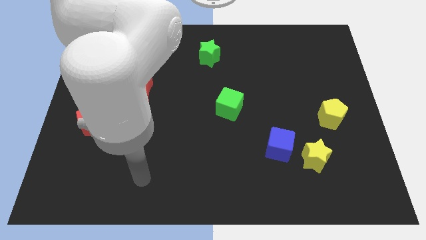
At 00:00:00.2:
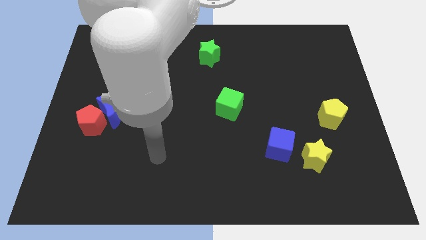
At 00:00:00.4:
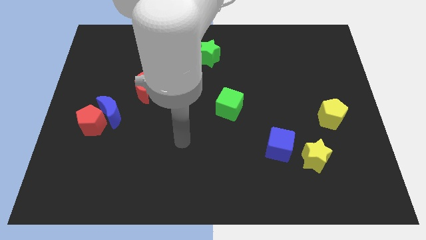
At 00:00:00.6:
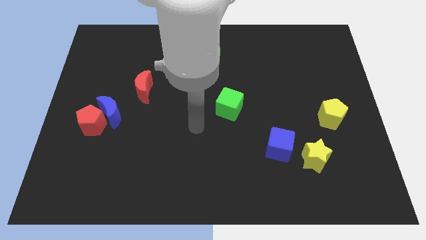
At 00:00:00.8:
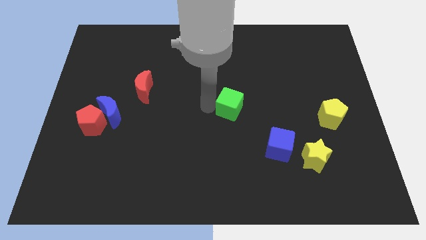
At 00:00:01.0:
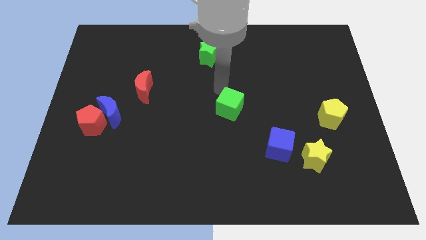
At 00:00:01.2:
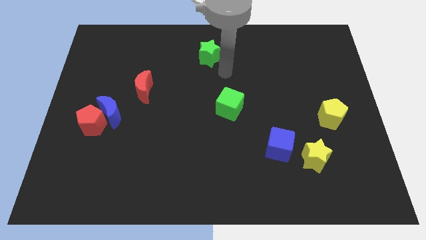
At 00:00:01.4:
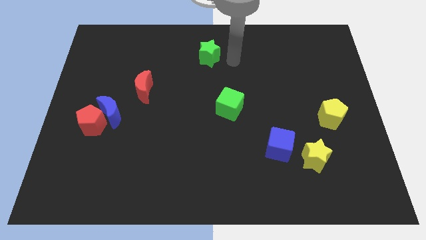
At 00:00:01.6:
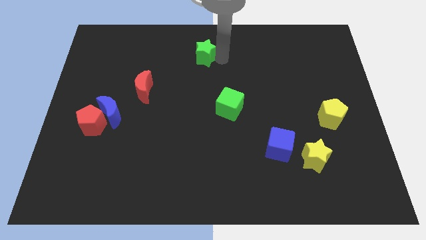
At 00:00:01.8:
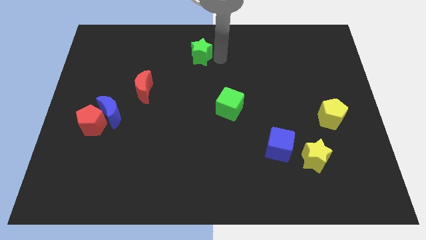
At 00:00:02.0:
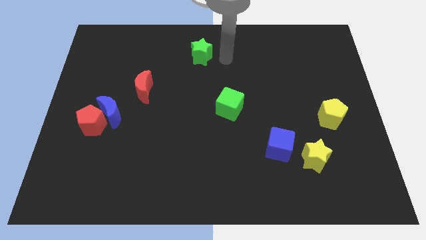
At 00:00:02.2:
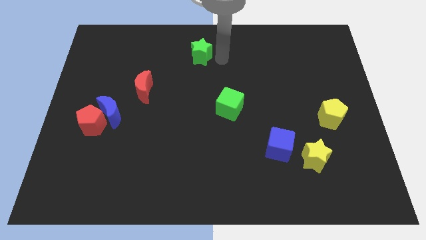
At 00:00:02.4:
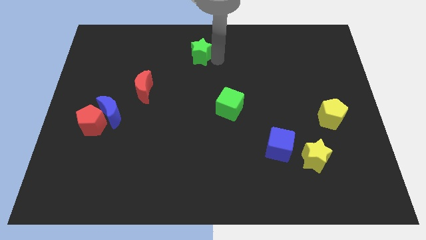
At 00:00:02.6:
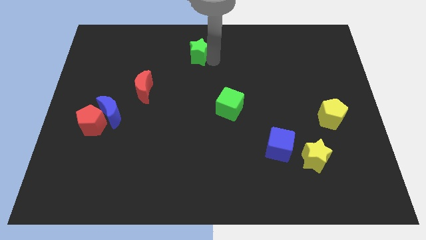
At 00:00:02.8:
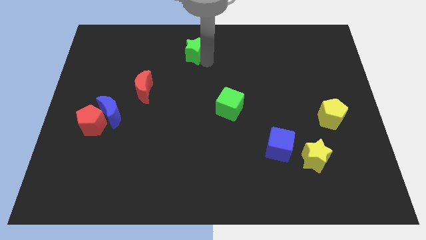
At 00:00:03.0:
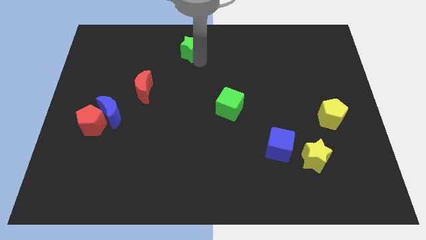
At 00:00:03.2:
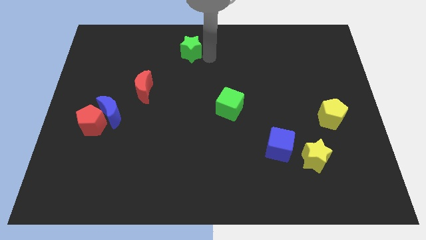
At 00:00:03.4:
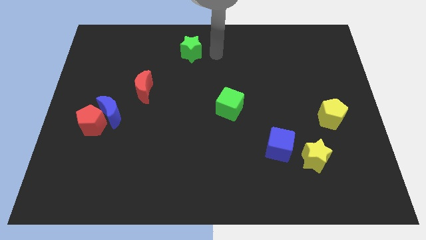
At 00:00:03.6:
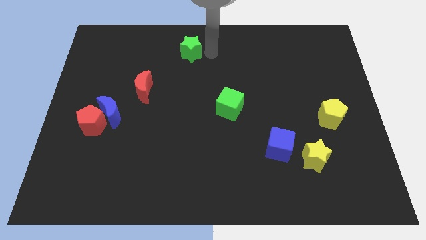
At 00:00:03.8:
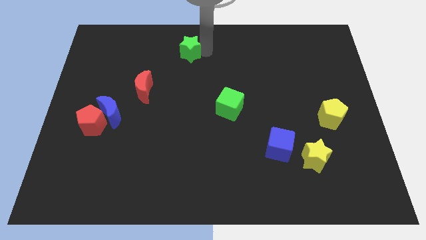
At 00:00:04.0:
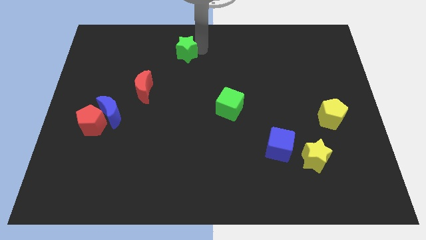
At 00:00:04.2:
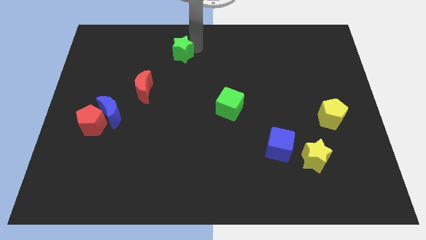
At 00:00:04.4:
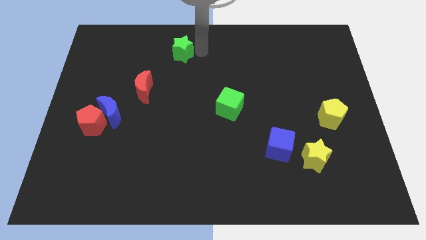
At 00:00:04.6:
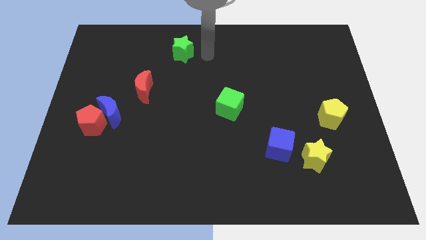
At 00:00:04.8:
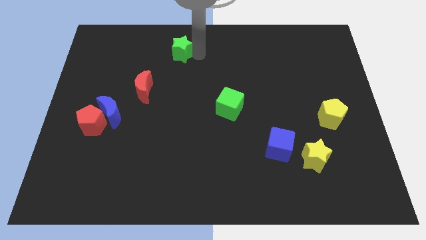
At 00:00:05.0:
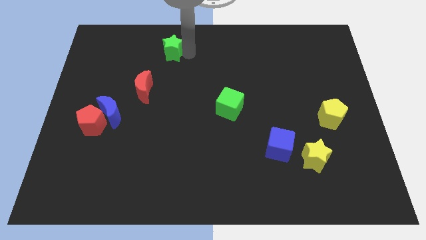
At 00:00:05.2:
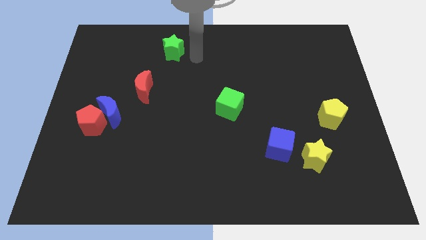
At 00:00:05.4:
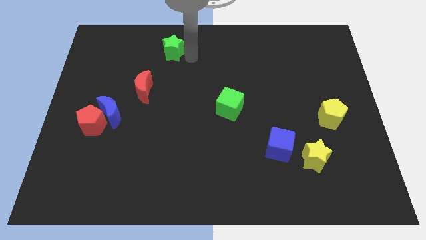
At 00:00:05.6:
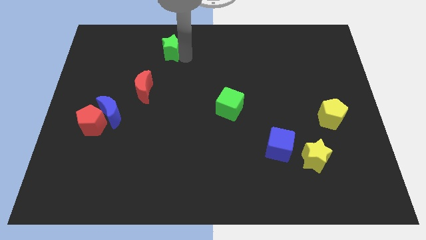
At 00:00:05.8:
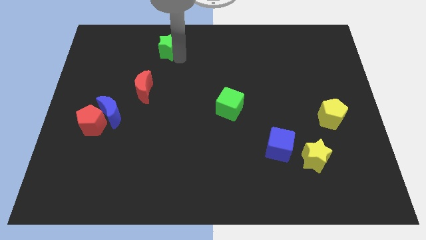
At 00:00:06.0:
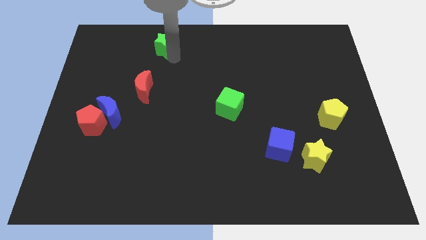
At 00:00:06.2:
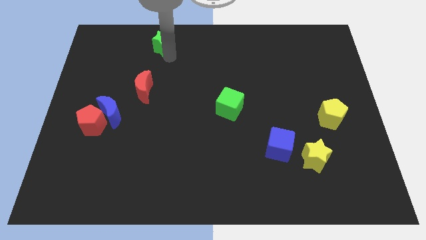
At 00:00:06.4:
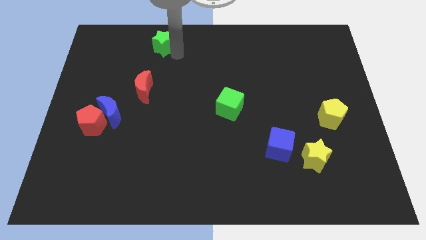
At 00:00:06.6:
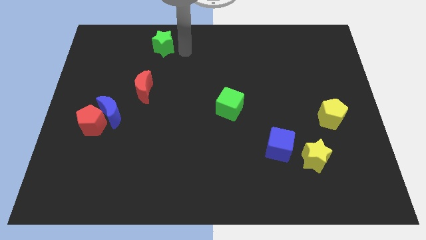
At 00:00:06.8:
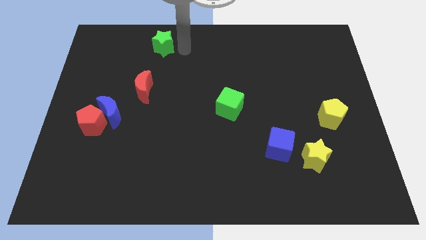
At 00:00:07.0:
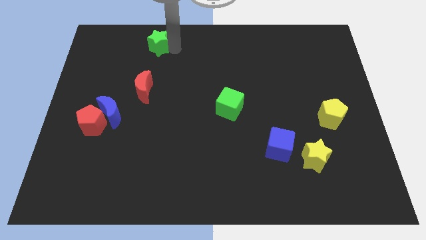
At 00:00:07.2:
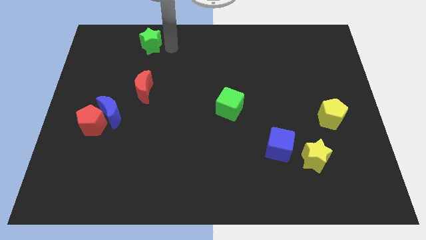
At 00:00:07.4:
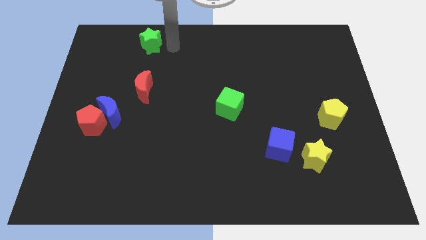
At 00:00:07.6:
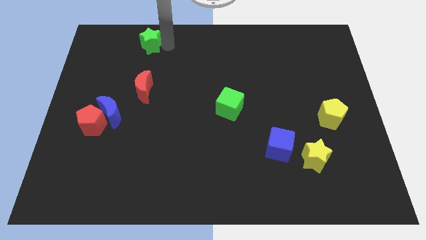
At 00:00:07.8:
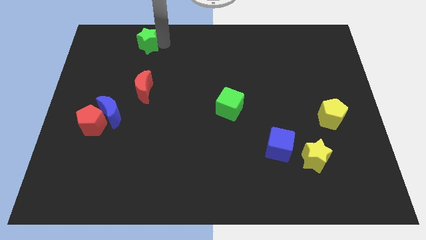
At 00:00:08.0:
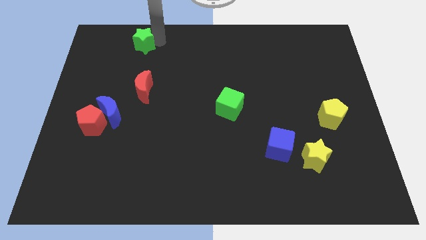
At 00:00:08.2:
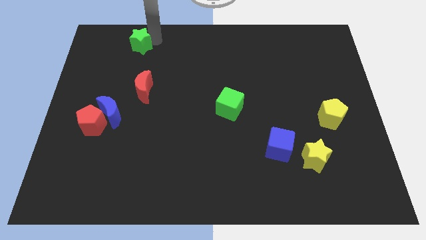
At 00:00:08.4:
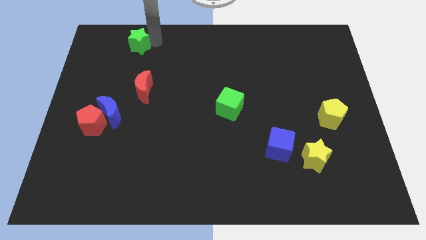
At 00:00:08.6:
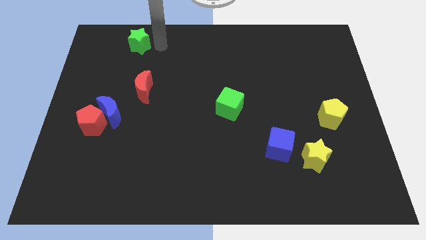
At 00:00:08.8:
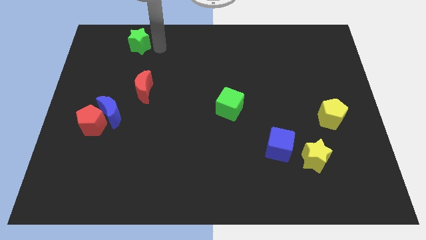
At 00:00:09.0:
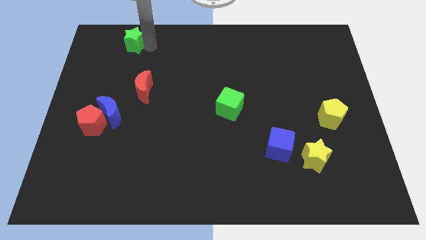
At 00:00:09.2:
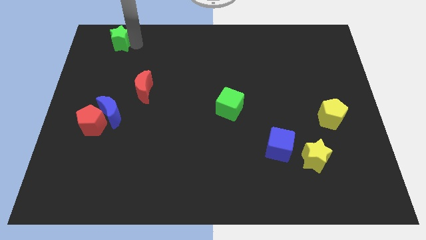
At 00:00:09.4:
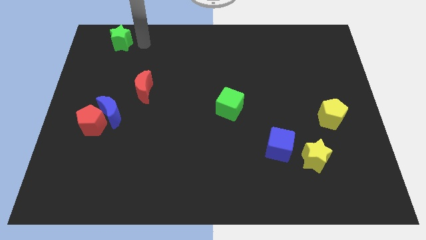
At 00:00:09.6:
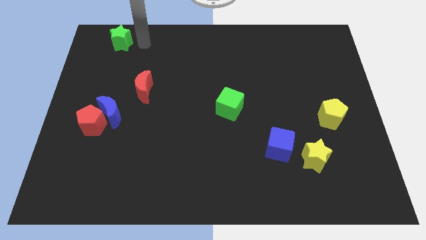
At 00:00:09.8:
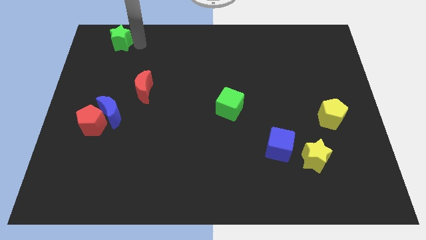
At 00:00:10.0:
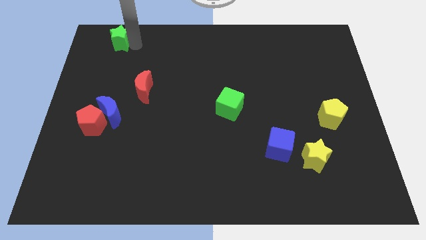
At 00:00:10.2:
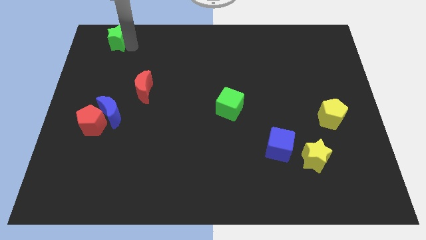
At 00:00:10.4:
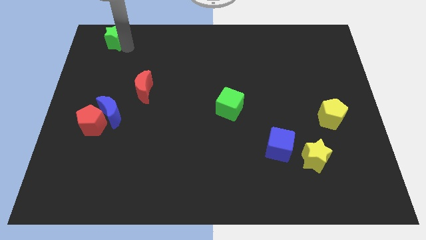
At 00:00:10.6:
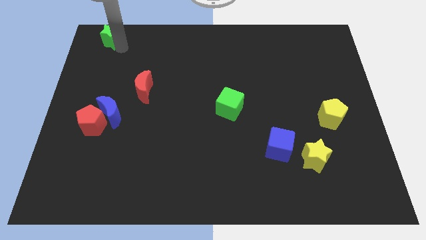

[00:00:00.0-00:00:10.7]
push the green star to the top left of the board
